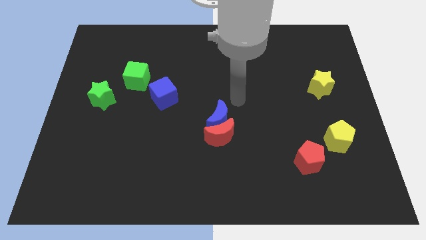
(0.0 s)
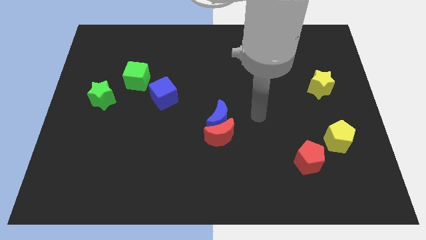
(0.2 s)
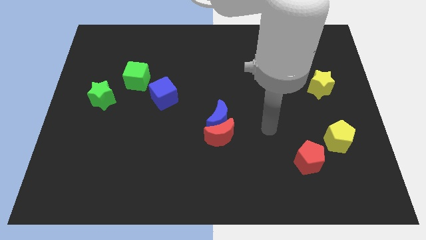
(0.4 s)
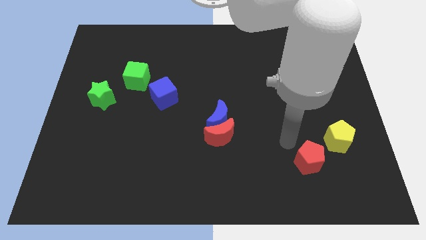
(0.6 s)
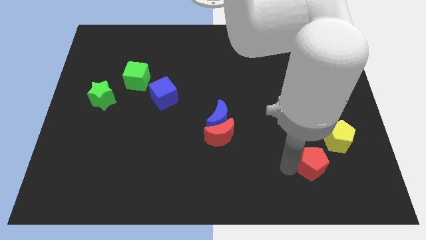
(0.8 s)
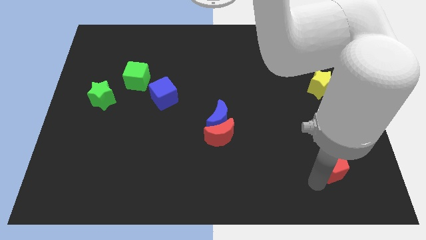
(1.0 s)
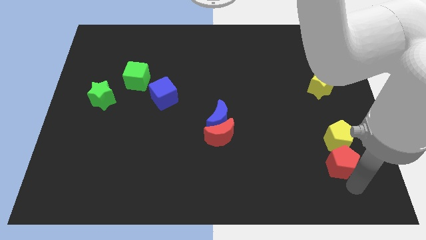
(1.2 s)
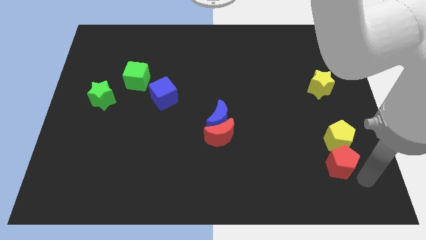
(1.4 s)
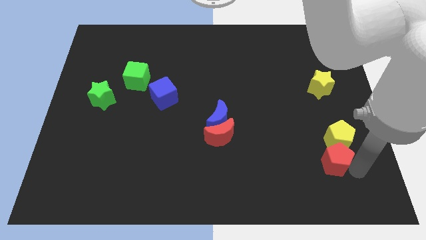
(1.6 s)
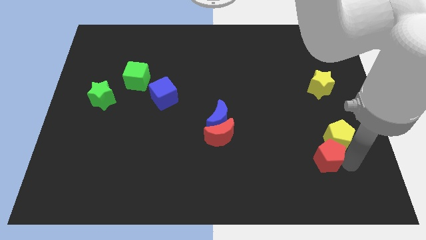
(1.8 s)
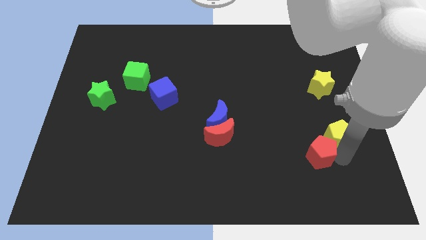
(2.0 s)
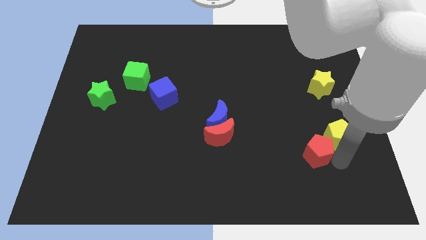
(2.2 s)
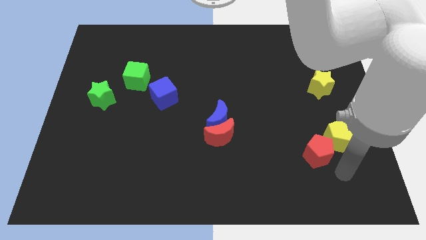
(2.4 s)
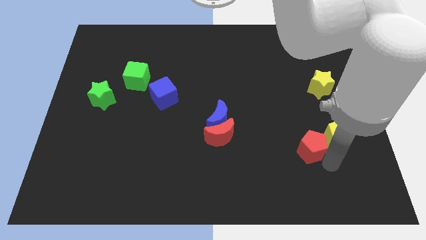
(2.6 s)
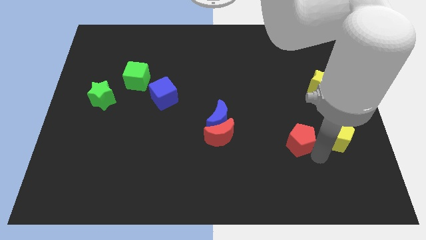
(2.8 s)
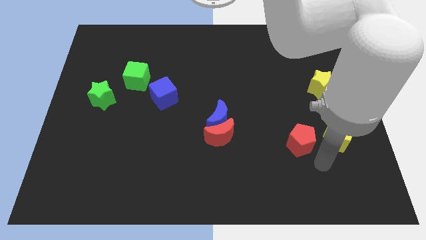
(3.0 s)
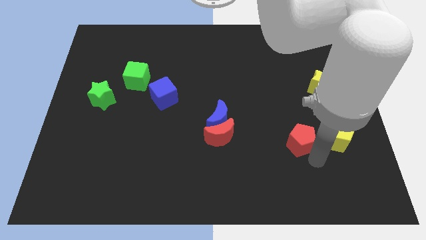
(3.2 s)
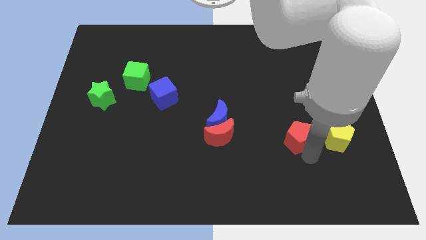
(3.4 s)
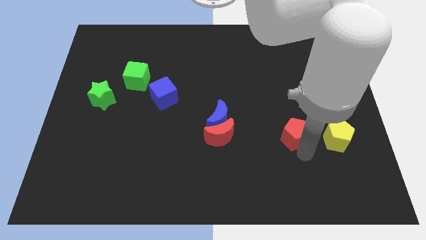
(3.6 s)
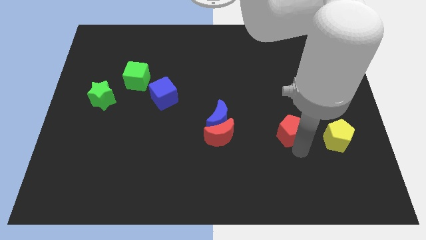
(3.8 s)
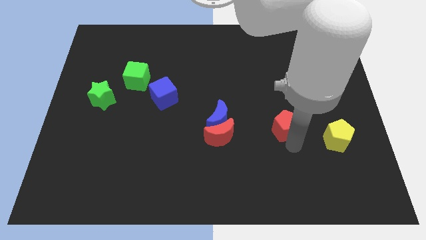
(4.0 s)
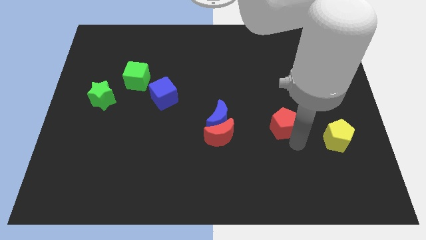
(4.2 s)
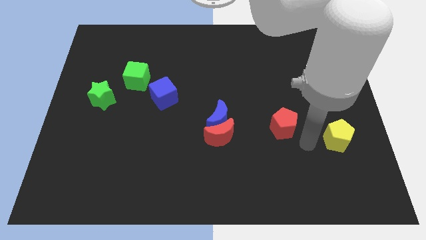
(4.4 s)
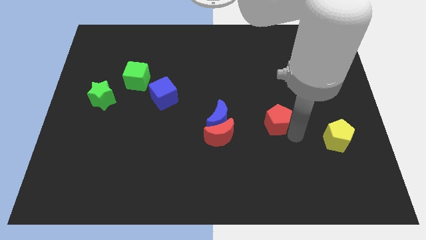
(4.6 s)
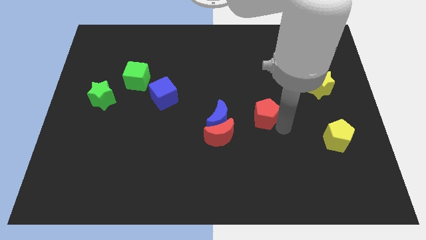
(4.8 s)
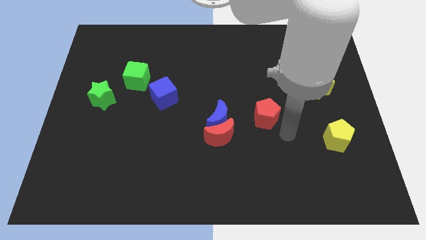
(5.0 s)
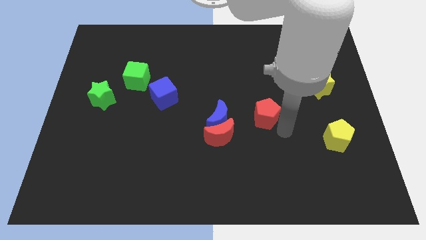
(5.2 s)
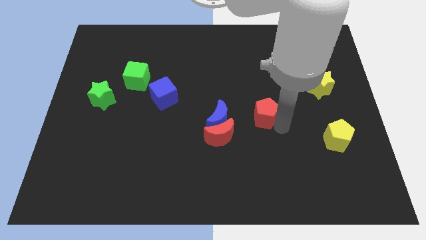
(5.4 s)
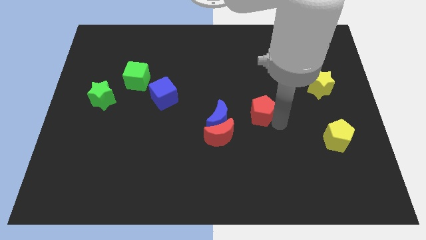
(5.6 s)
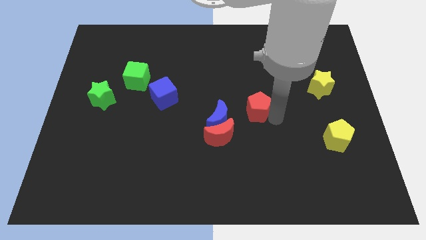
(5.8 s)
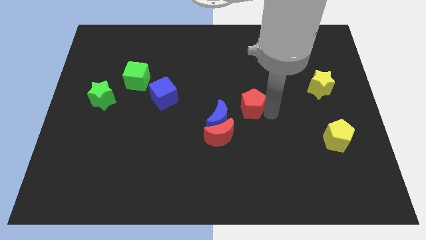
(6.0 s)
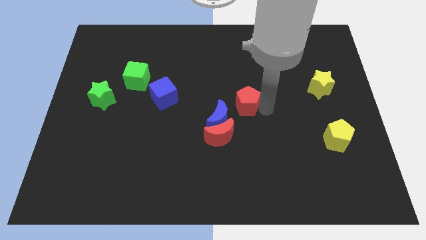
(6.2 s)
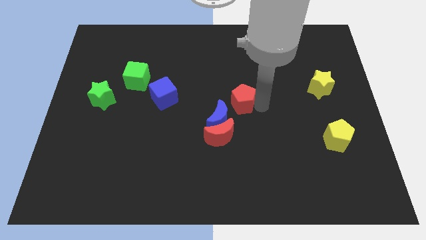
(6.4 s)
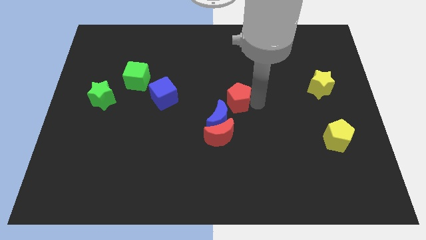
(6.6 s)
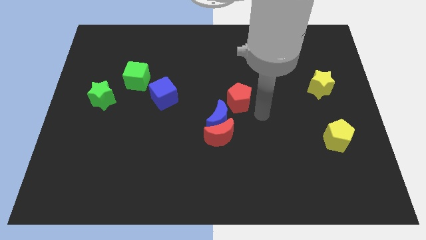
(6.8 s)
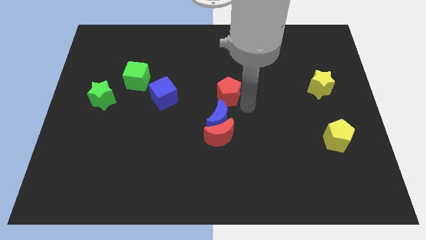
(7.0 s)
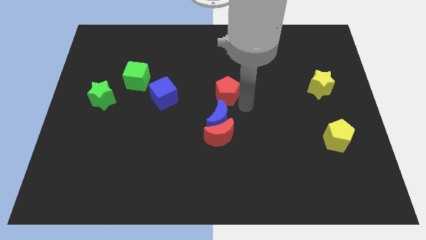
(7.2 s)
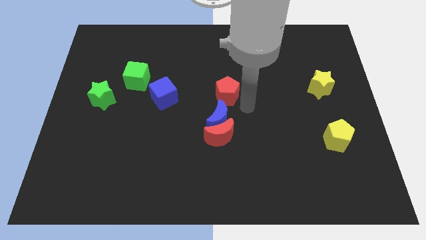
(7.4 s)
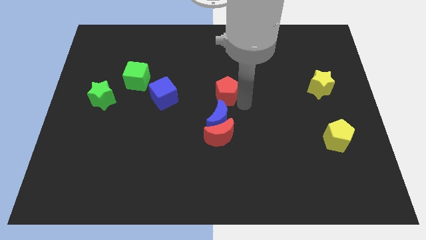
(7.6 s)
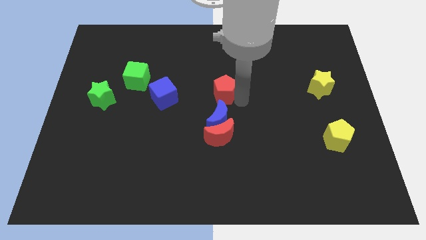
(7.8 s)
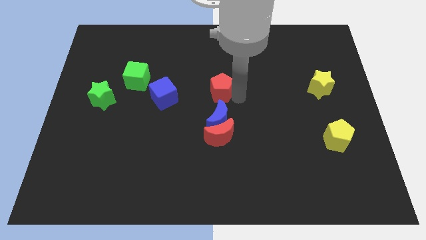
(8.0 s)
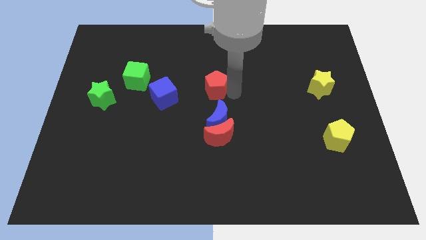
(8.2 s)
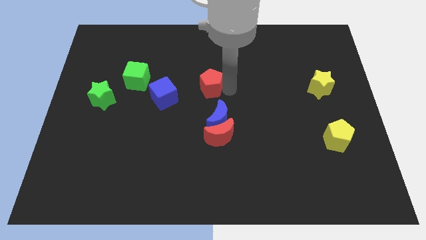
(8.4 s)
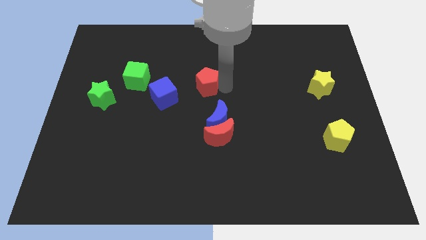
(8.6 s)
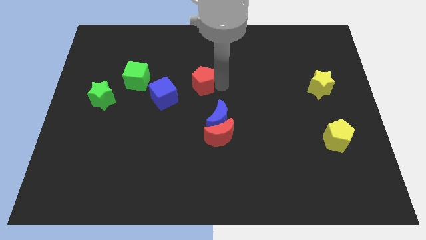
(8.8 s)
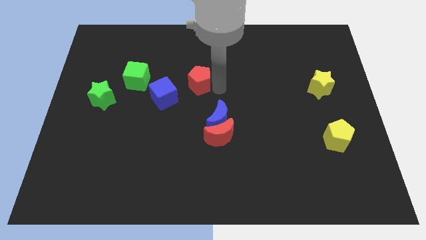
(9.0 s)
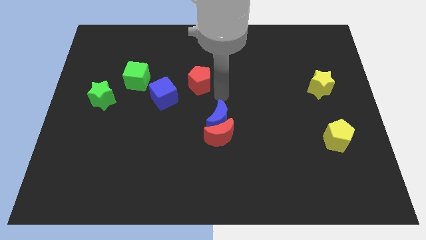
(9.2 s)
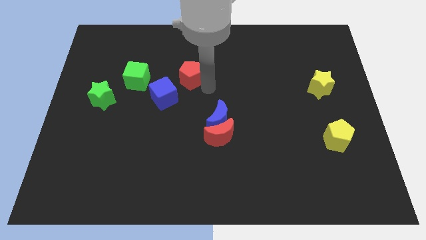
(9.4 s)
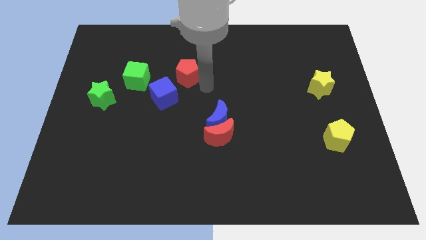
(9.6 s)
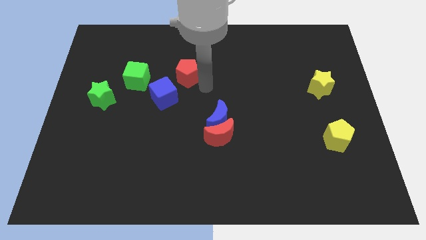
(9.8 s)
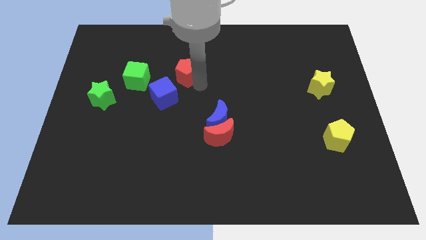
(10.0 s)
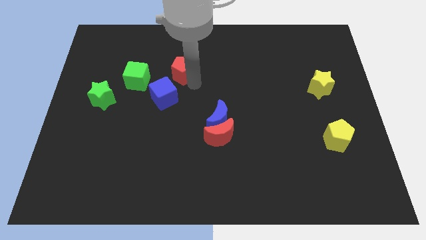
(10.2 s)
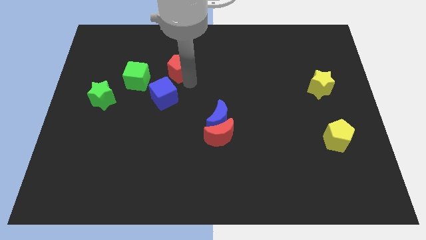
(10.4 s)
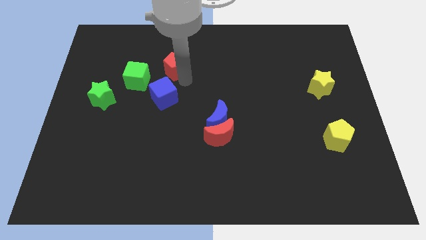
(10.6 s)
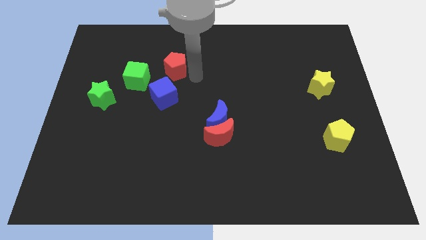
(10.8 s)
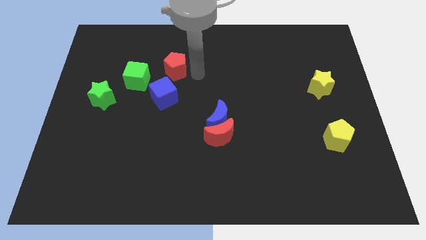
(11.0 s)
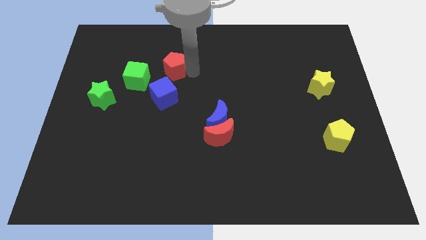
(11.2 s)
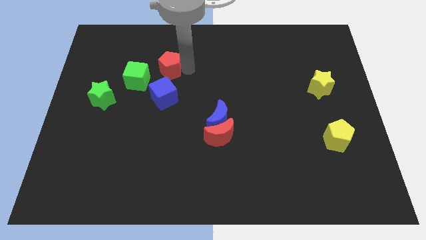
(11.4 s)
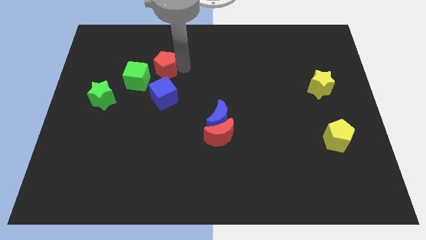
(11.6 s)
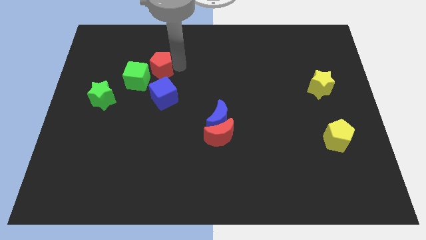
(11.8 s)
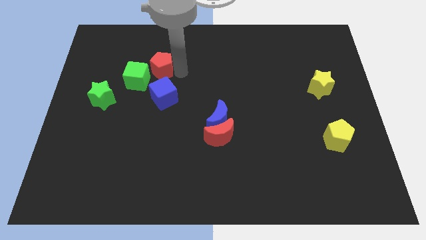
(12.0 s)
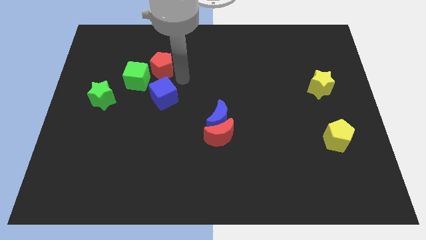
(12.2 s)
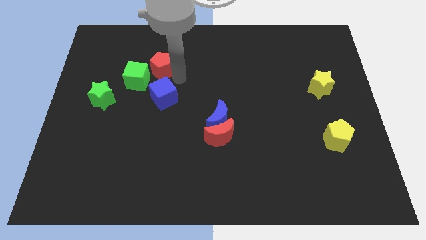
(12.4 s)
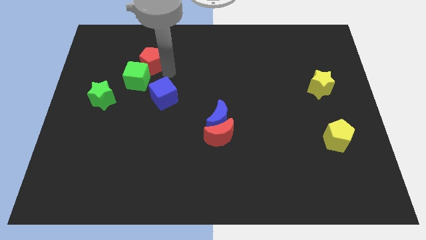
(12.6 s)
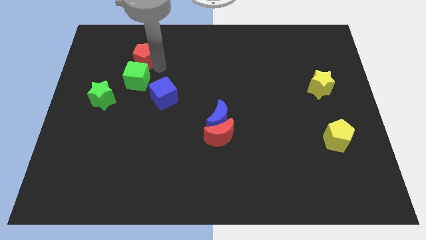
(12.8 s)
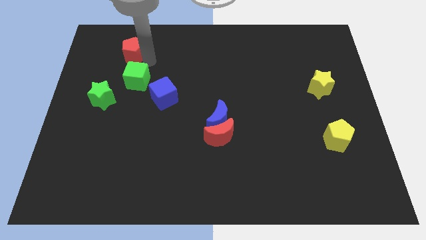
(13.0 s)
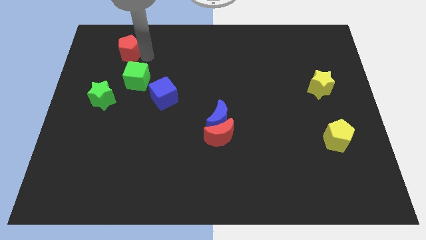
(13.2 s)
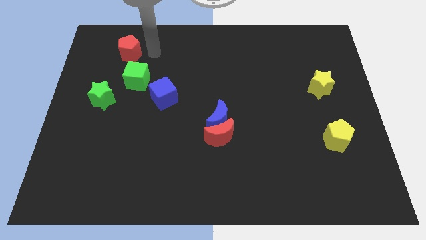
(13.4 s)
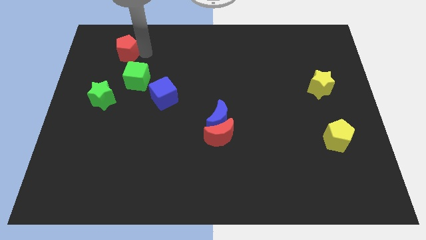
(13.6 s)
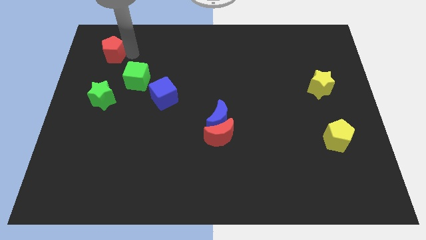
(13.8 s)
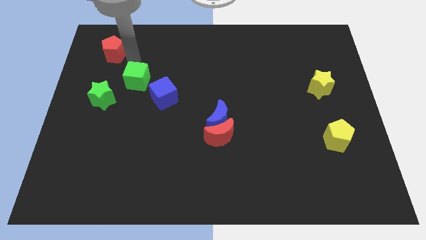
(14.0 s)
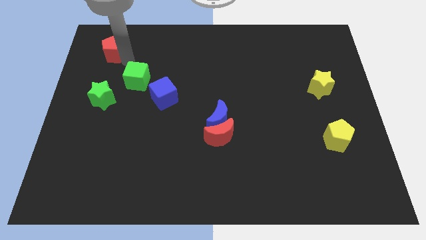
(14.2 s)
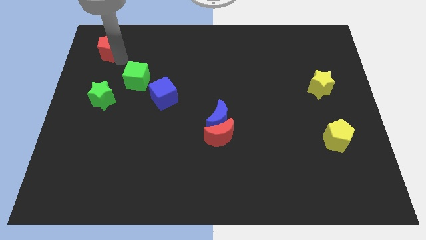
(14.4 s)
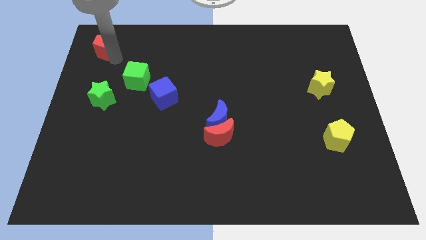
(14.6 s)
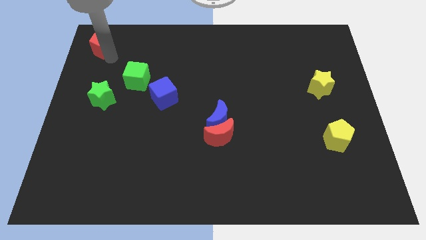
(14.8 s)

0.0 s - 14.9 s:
move the red pentagon to the upper left corner
